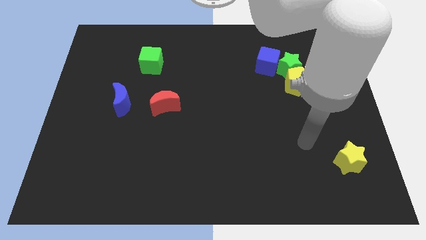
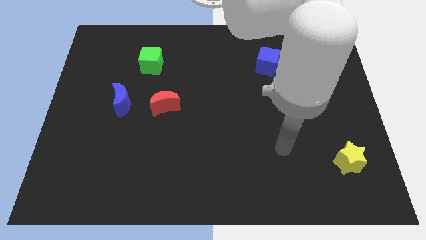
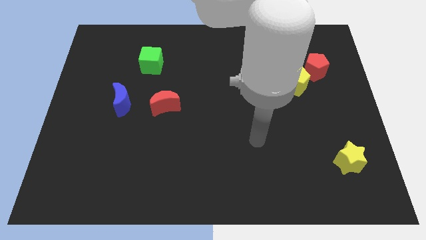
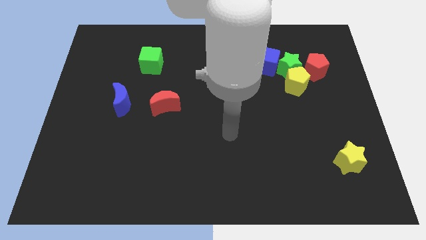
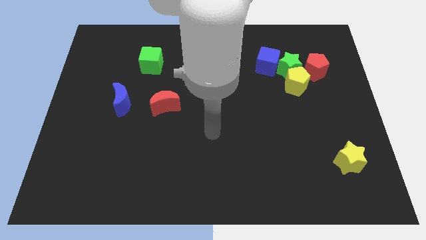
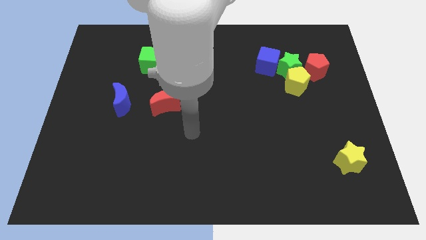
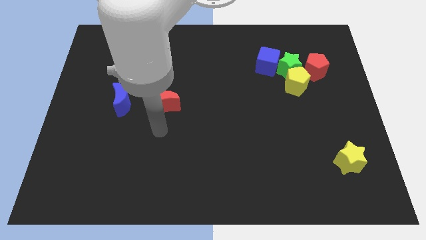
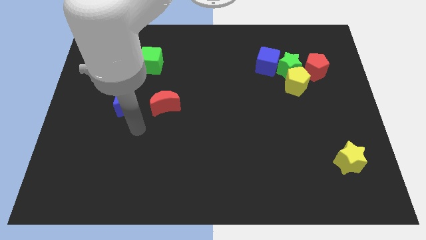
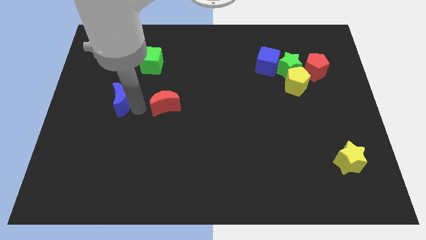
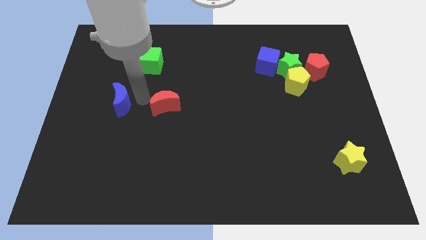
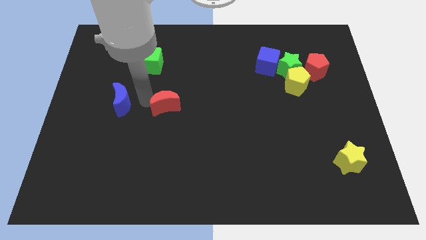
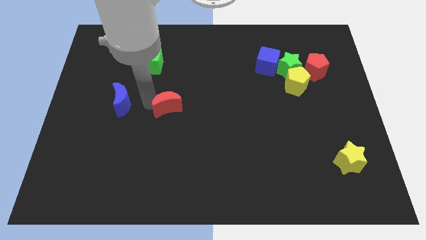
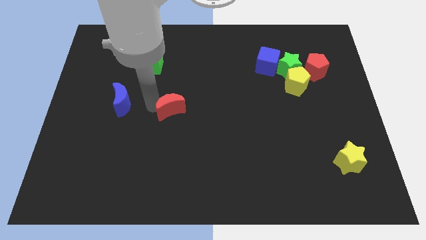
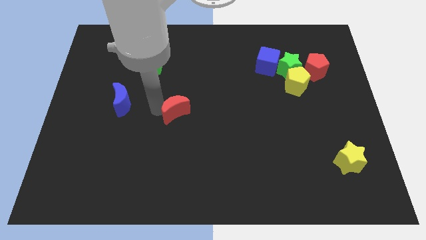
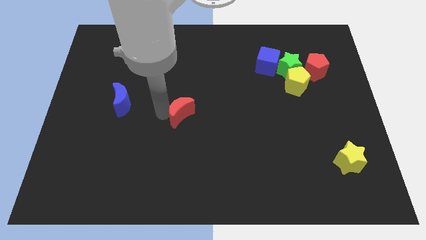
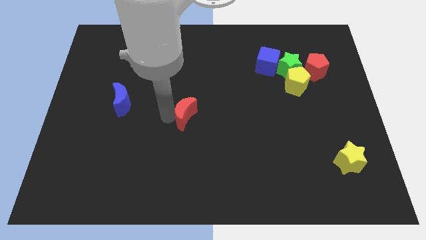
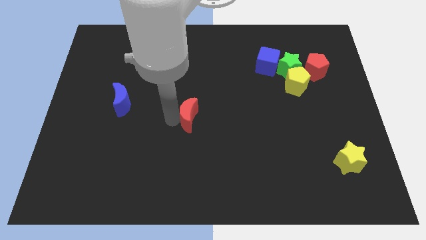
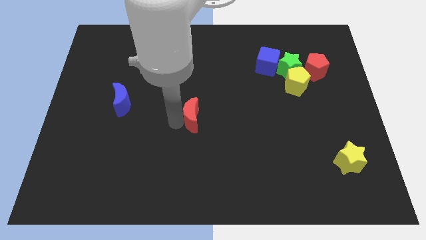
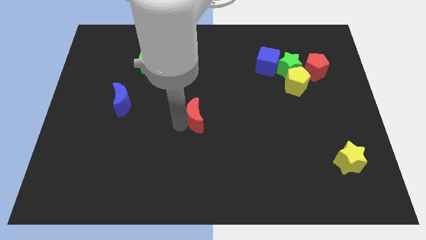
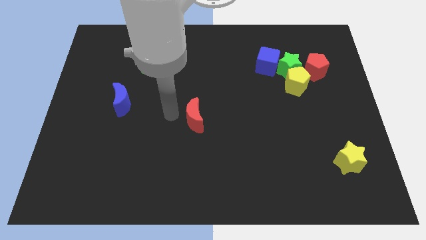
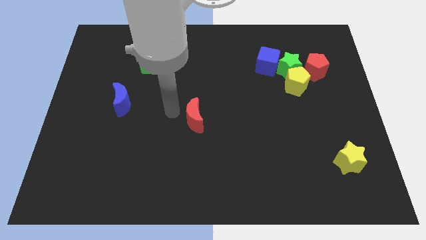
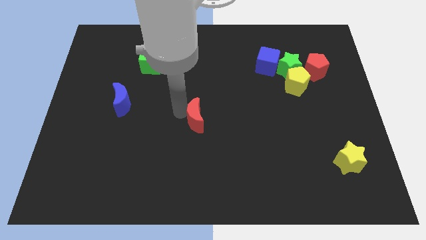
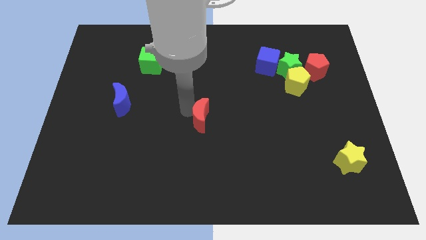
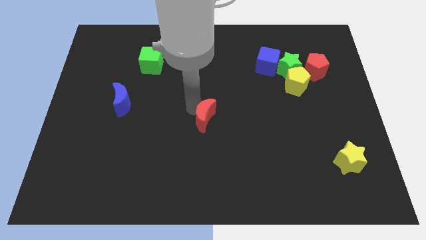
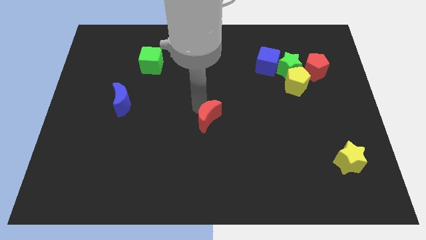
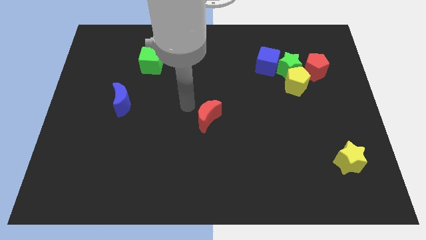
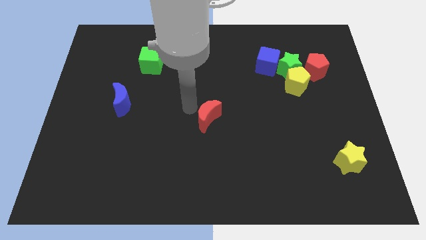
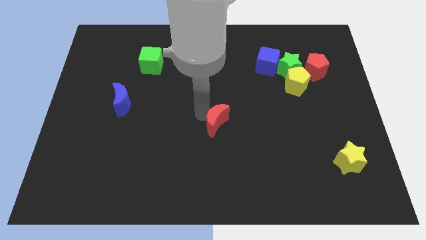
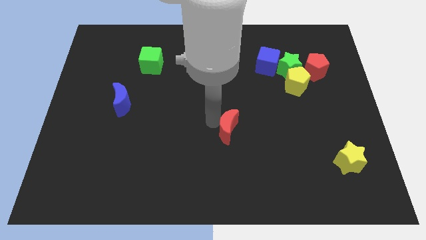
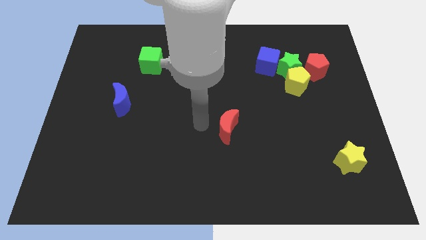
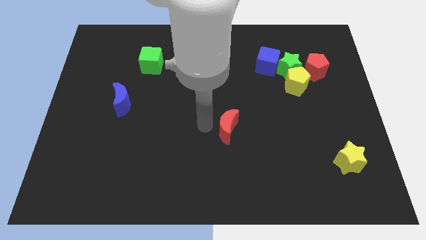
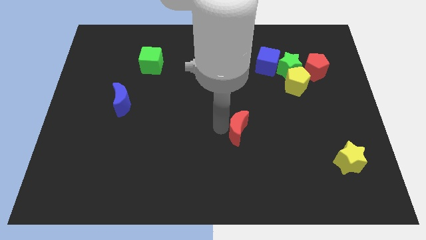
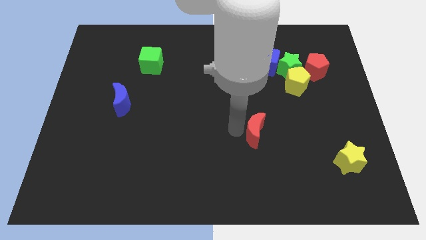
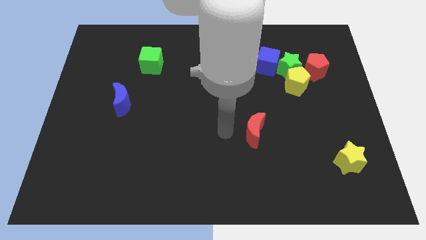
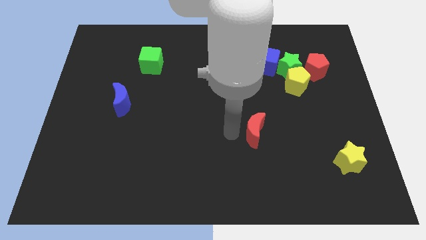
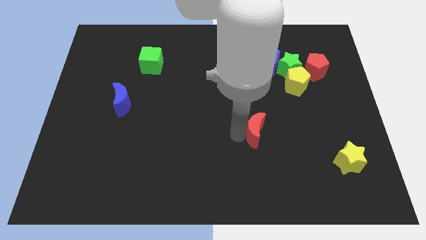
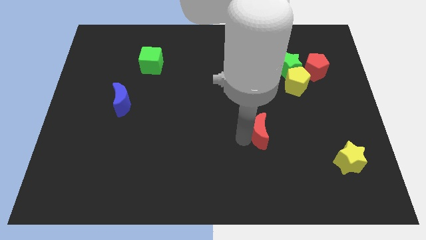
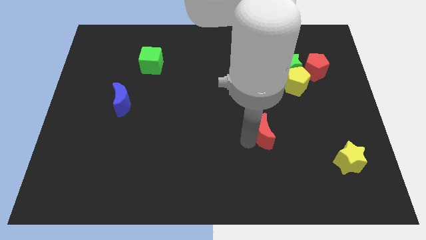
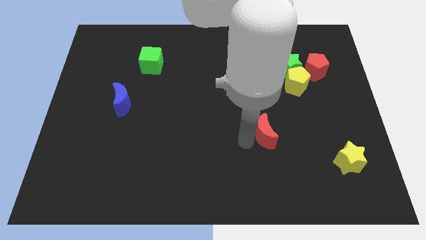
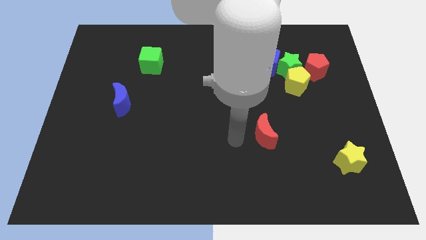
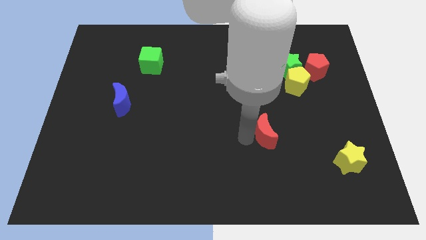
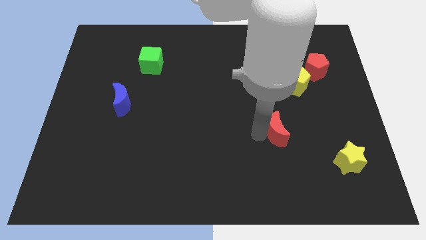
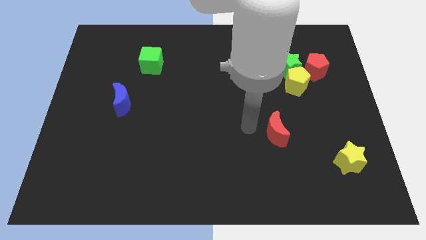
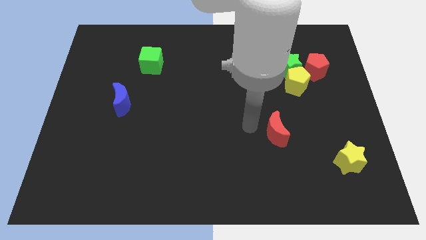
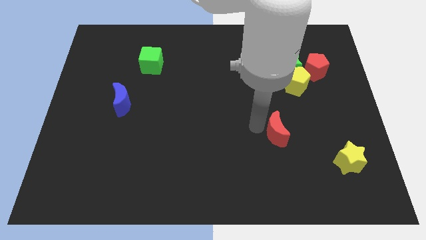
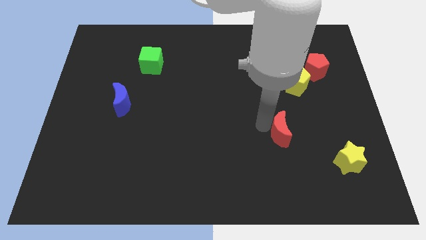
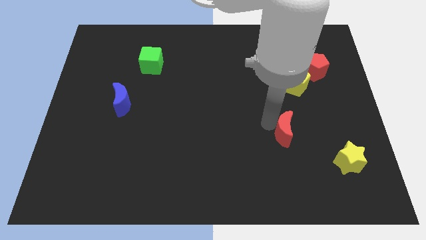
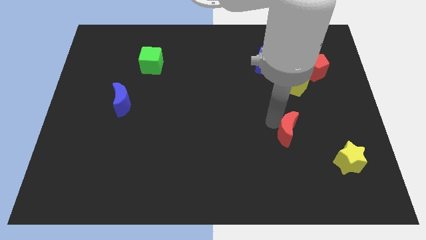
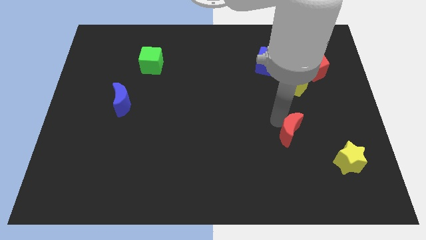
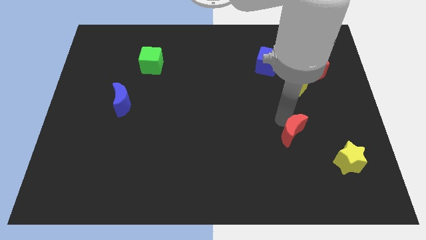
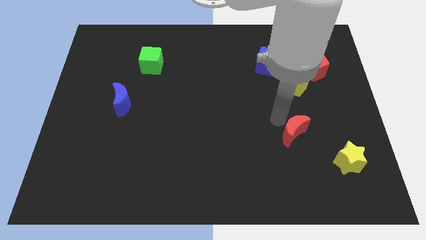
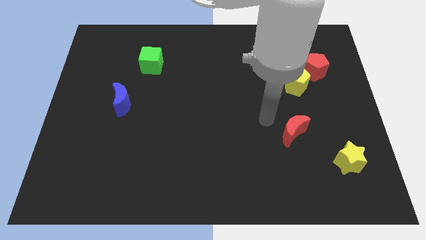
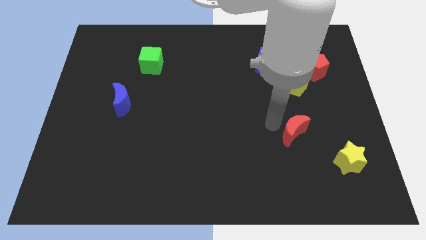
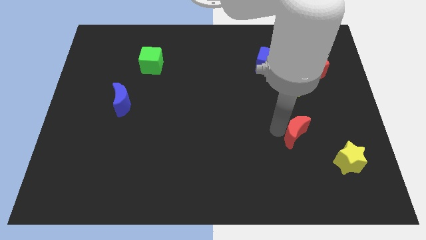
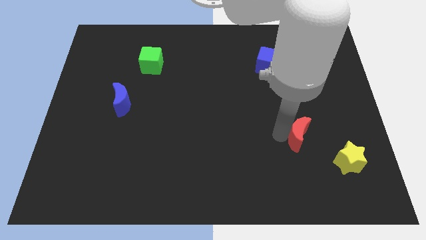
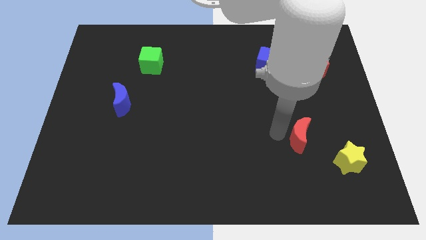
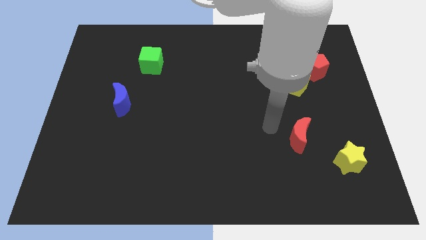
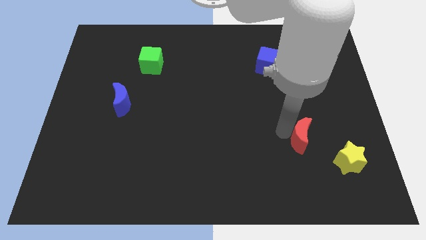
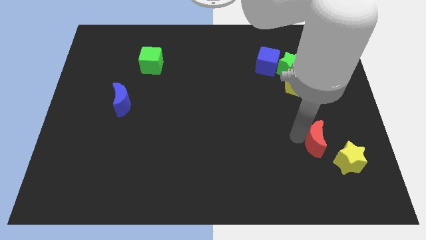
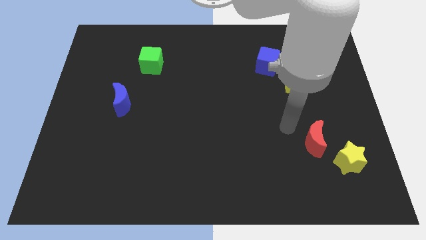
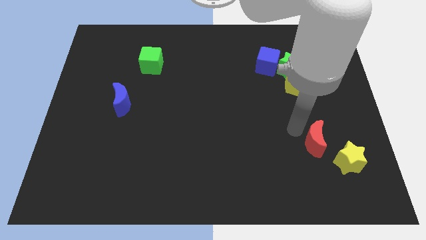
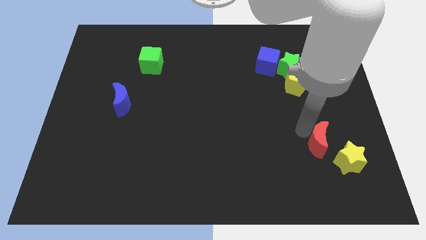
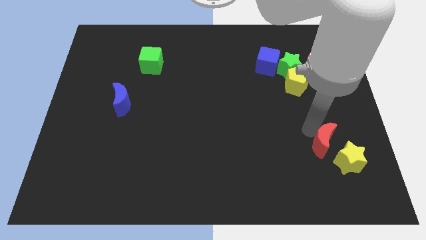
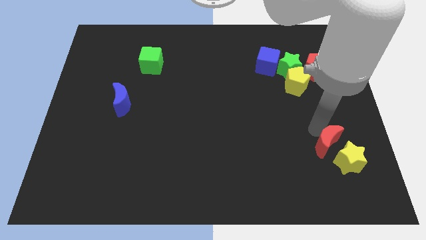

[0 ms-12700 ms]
push the red moon towards the yellow star

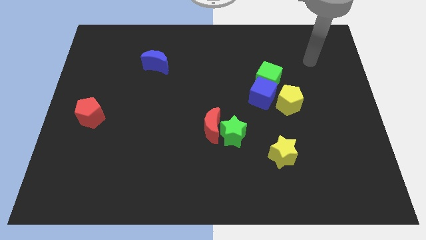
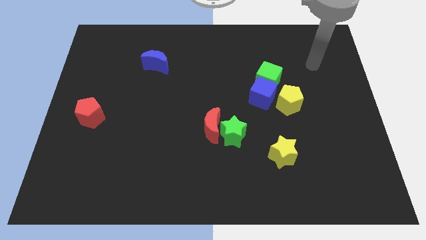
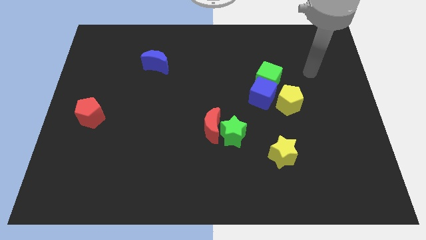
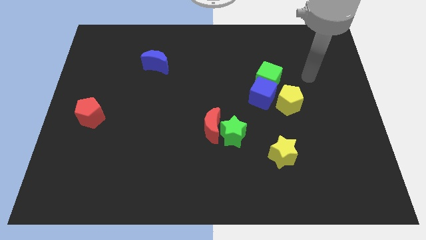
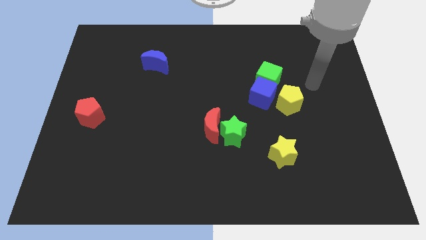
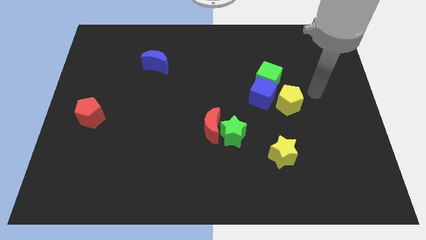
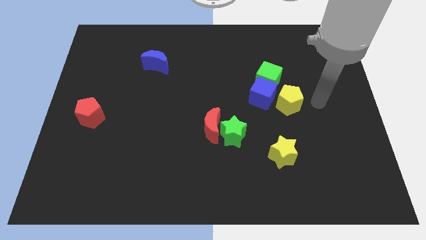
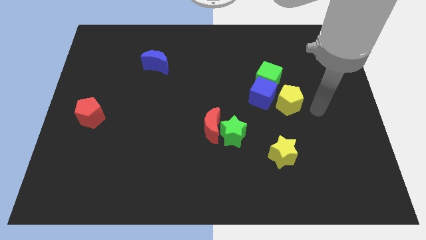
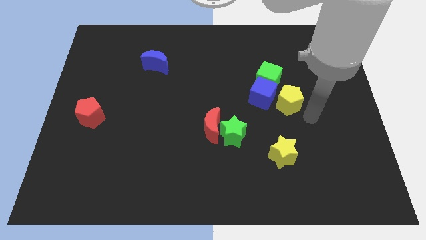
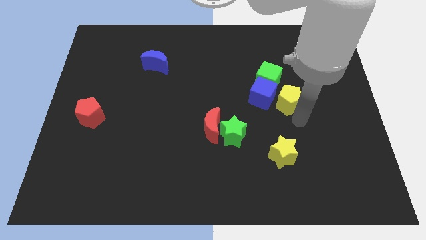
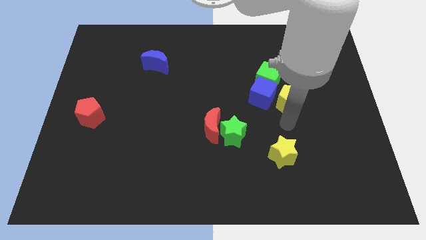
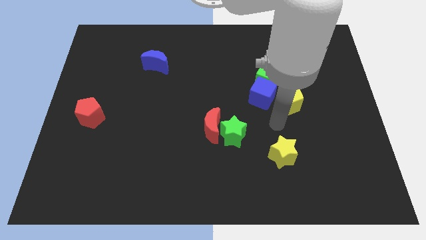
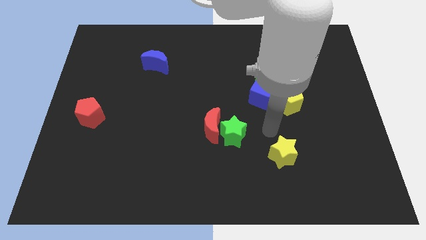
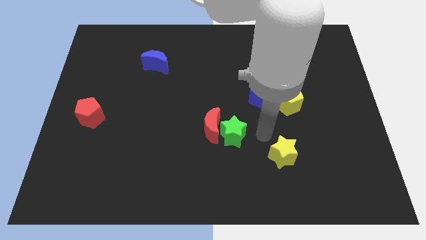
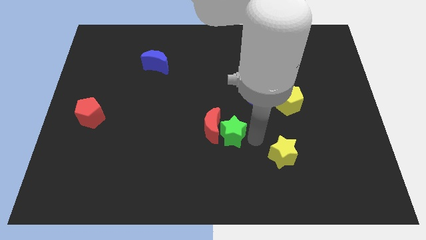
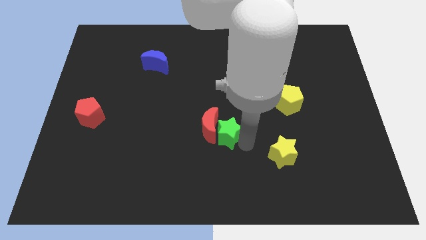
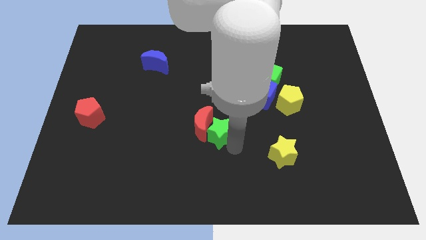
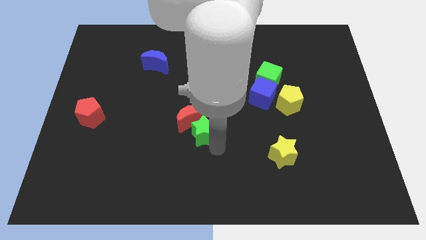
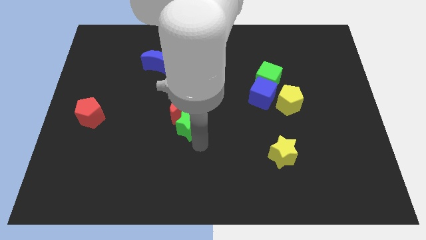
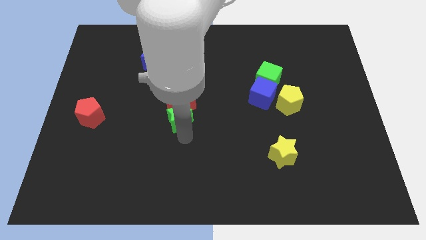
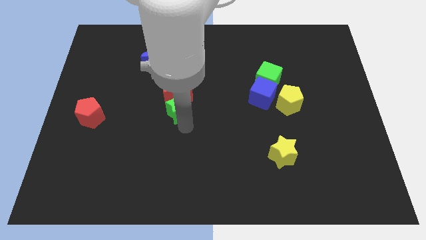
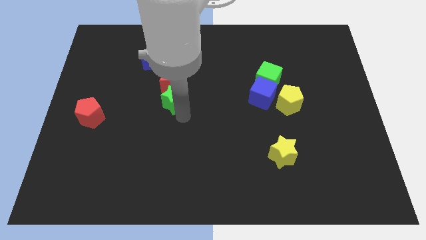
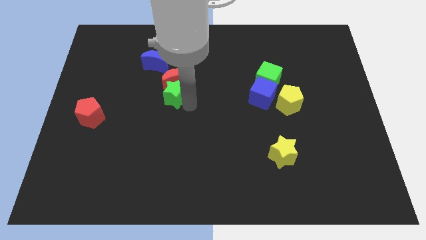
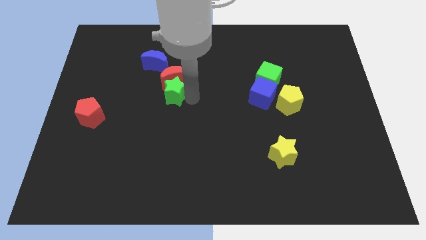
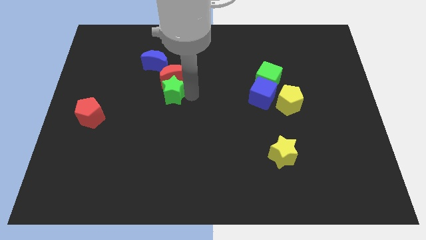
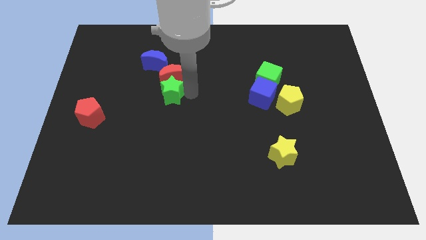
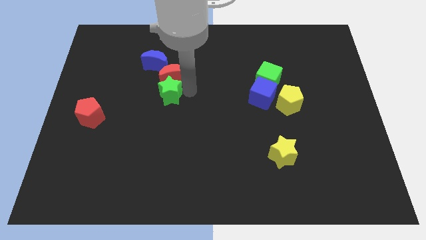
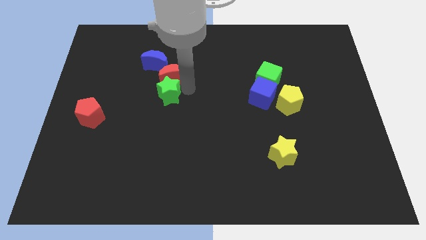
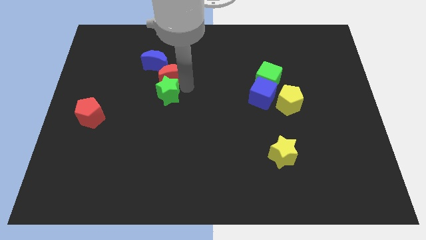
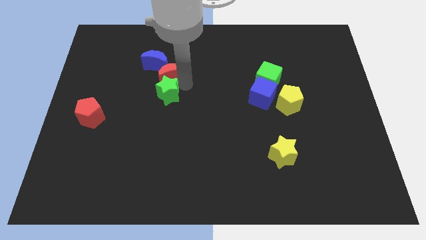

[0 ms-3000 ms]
put the red moon towards the blue moon
